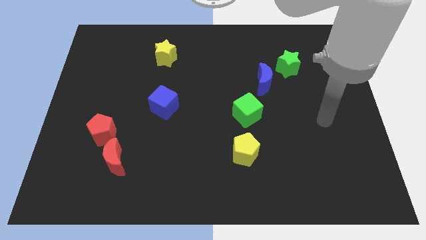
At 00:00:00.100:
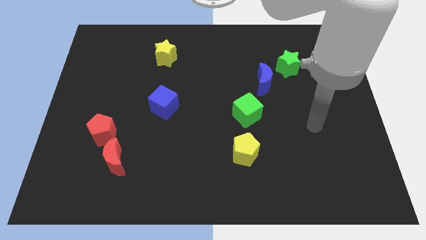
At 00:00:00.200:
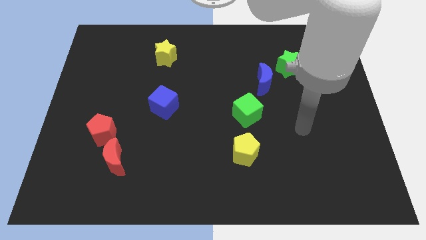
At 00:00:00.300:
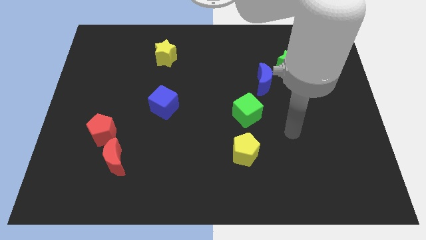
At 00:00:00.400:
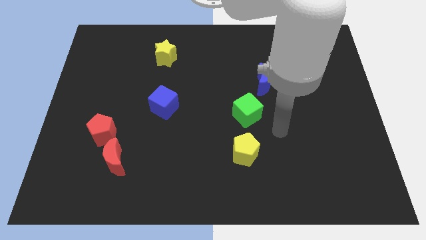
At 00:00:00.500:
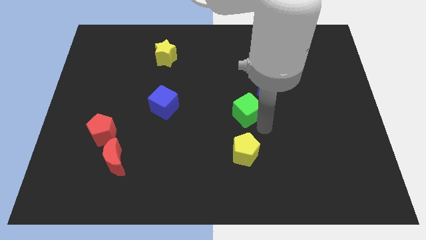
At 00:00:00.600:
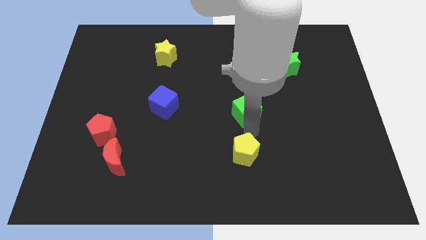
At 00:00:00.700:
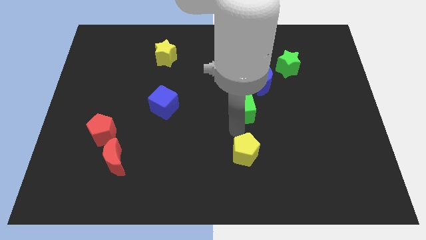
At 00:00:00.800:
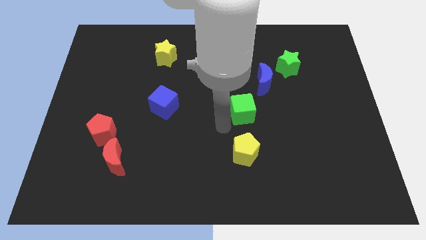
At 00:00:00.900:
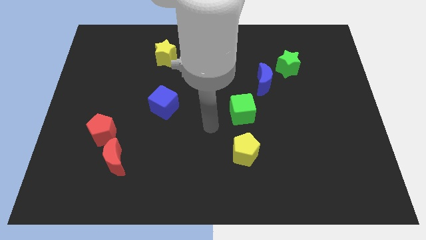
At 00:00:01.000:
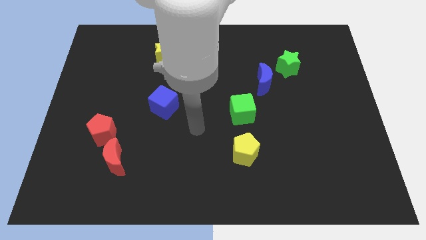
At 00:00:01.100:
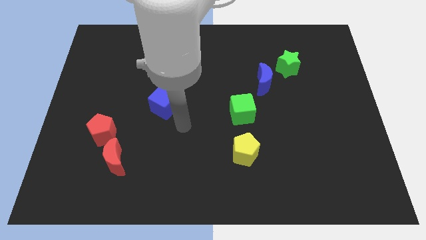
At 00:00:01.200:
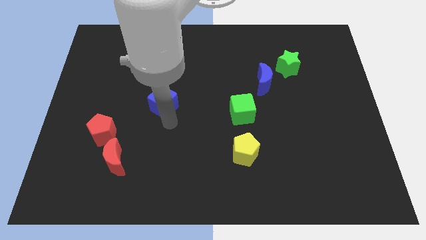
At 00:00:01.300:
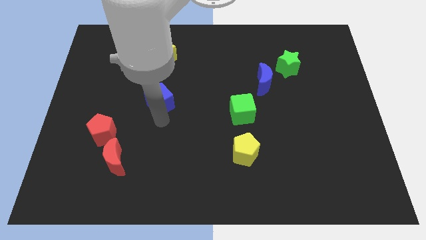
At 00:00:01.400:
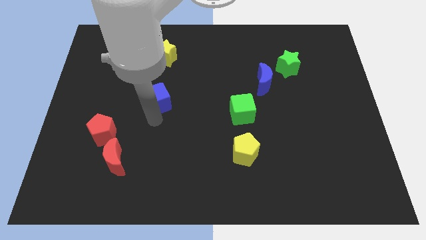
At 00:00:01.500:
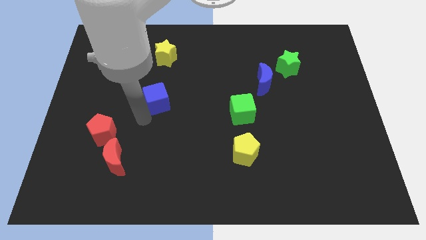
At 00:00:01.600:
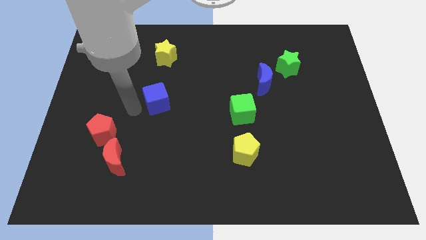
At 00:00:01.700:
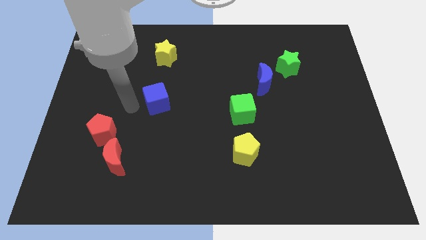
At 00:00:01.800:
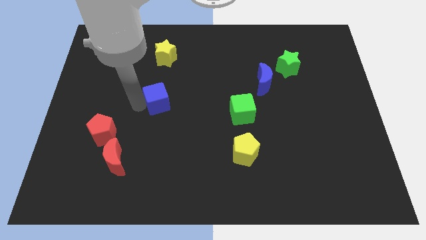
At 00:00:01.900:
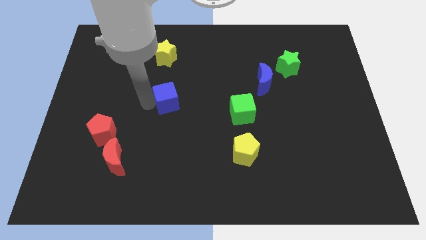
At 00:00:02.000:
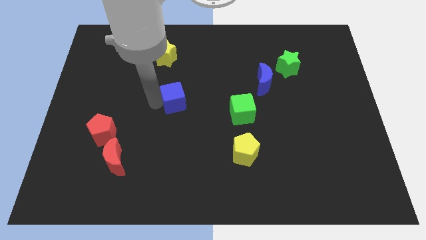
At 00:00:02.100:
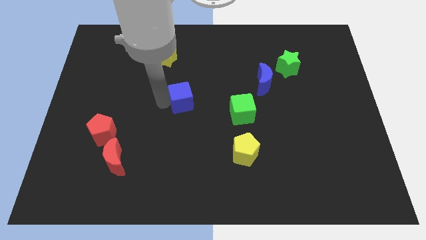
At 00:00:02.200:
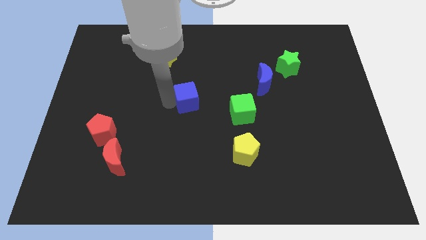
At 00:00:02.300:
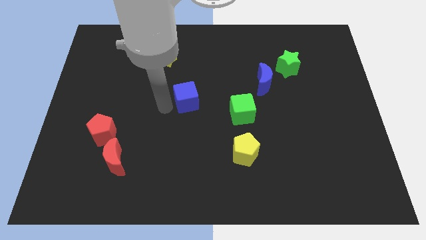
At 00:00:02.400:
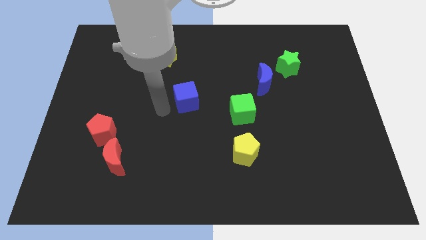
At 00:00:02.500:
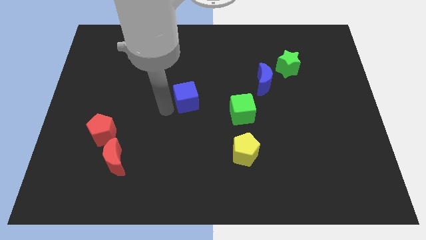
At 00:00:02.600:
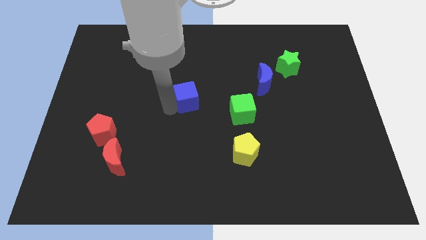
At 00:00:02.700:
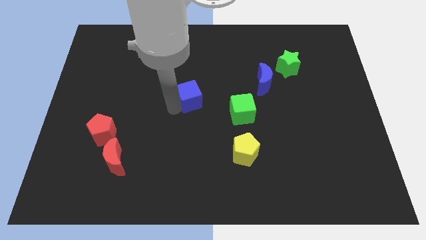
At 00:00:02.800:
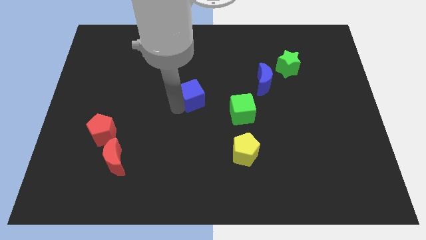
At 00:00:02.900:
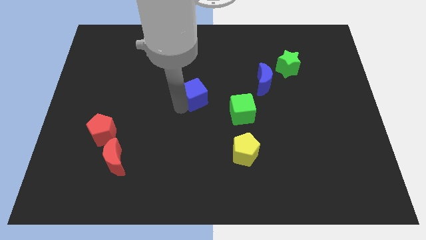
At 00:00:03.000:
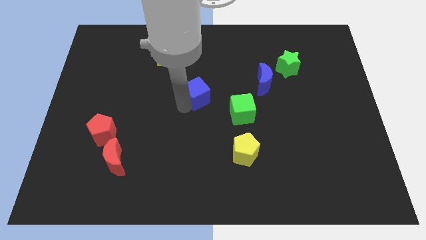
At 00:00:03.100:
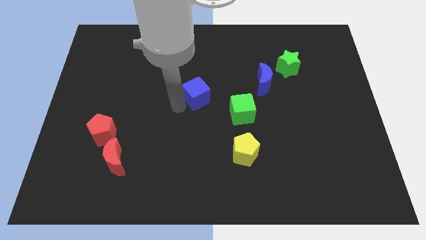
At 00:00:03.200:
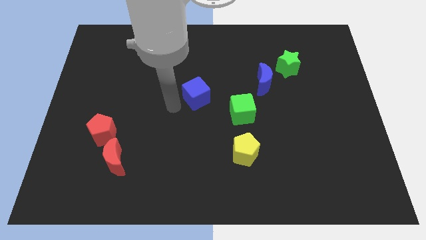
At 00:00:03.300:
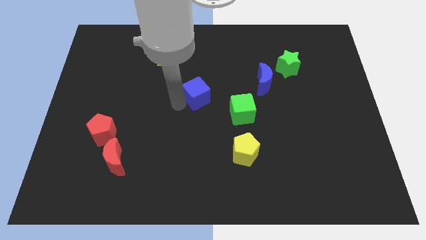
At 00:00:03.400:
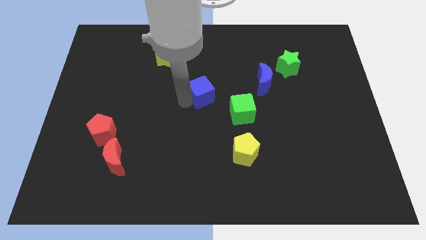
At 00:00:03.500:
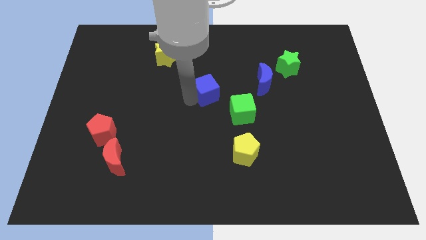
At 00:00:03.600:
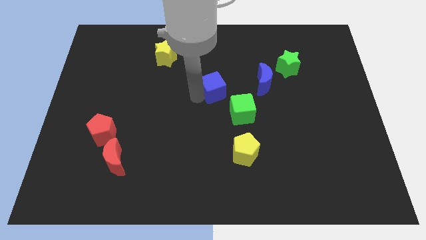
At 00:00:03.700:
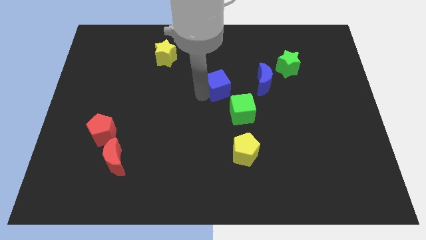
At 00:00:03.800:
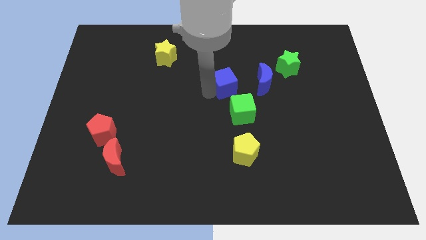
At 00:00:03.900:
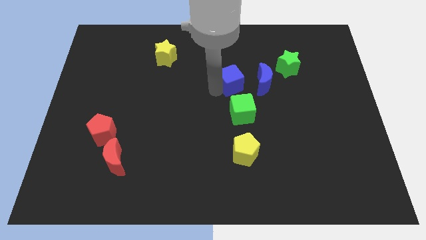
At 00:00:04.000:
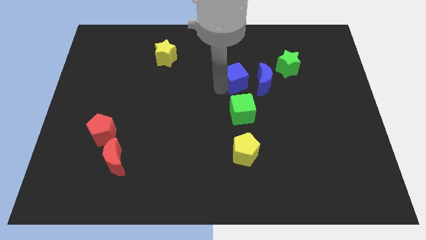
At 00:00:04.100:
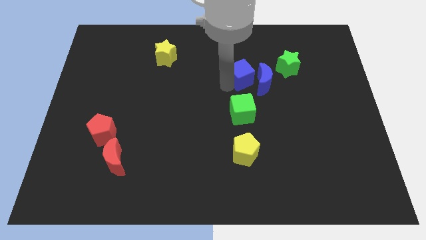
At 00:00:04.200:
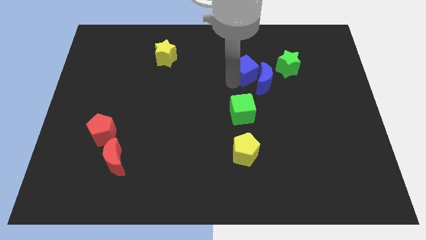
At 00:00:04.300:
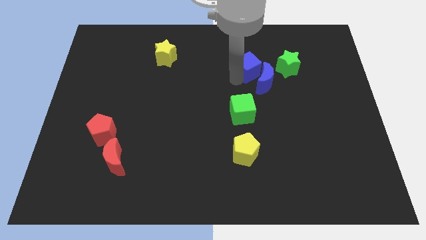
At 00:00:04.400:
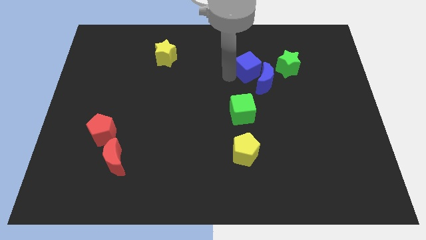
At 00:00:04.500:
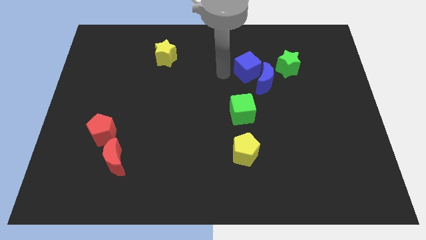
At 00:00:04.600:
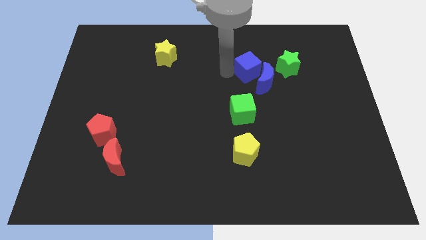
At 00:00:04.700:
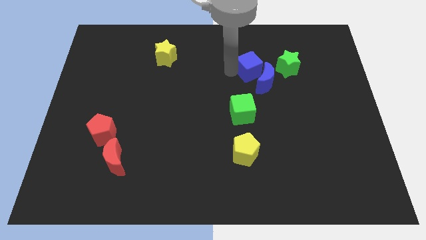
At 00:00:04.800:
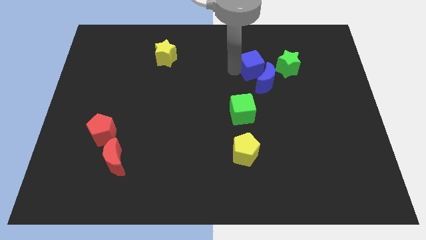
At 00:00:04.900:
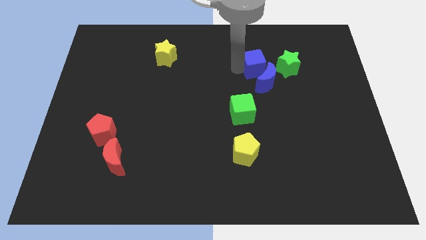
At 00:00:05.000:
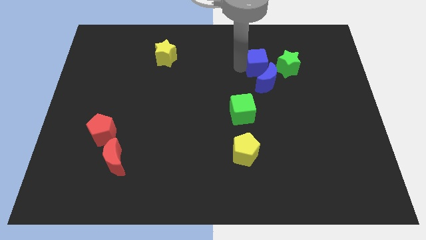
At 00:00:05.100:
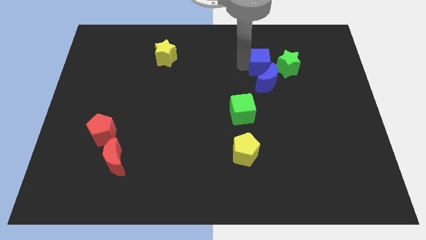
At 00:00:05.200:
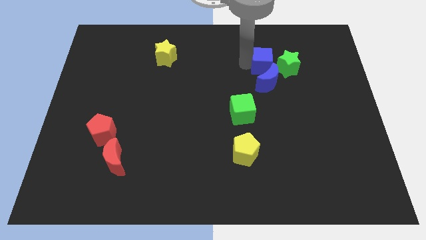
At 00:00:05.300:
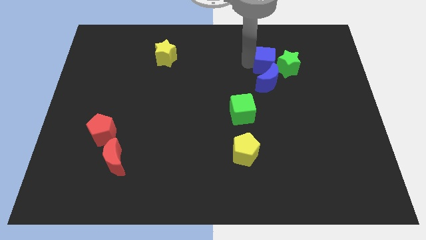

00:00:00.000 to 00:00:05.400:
push the blue cube close to the green star

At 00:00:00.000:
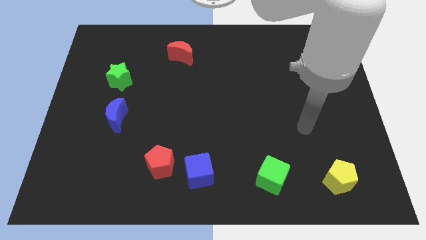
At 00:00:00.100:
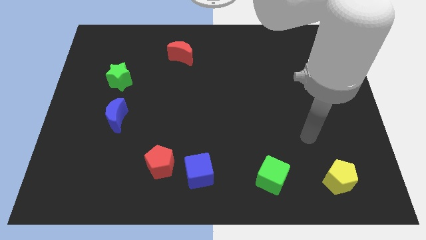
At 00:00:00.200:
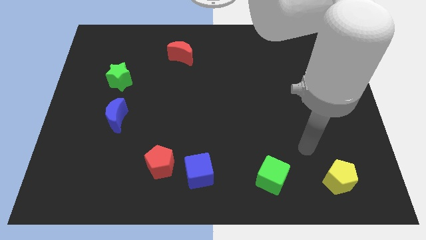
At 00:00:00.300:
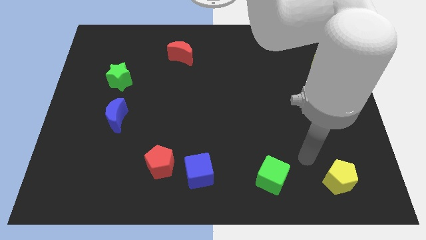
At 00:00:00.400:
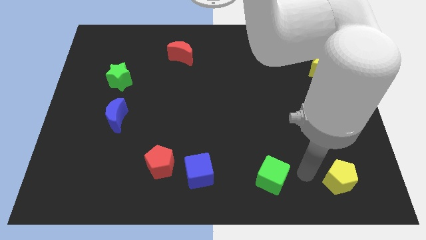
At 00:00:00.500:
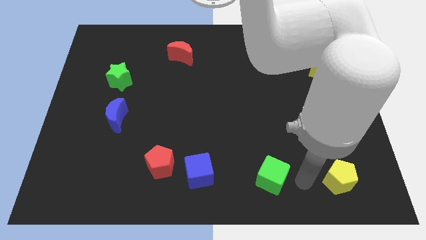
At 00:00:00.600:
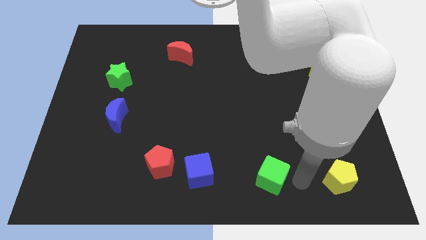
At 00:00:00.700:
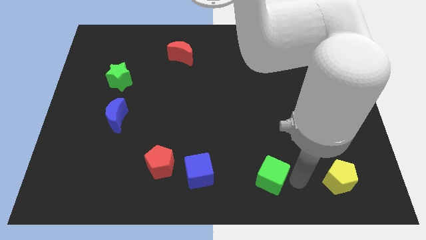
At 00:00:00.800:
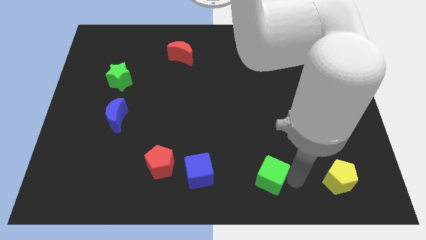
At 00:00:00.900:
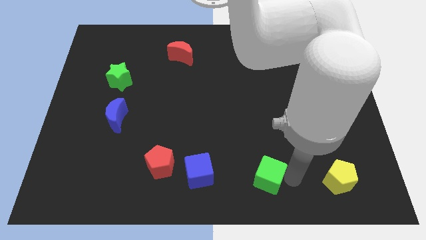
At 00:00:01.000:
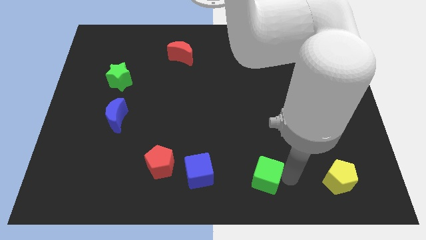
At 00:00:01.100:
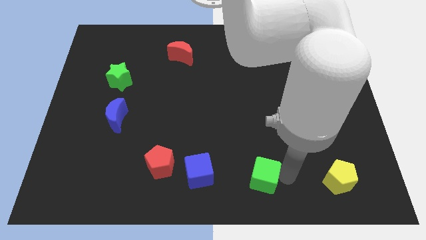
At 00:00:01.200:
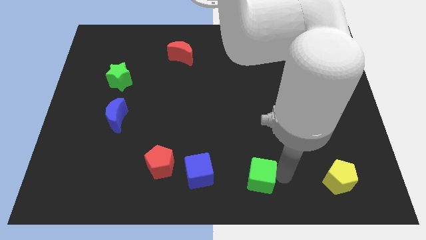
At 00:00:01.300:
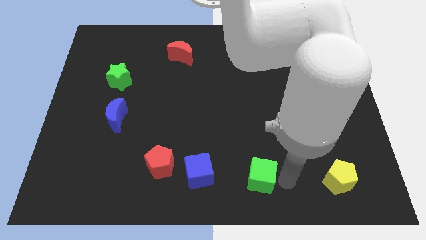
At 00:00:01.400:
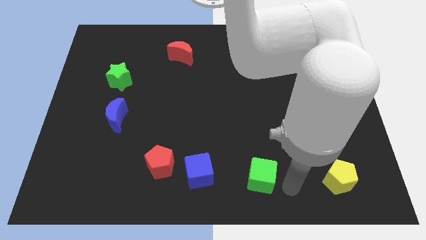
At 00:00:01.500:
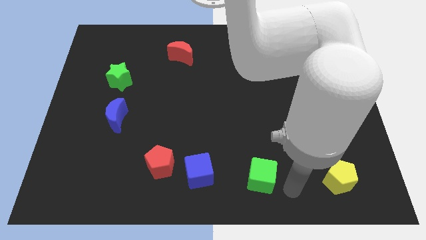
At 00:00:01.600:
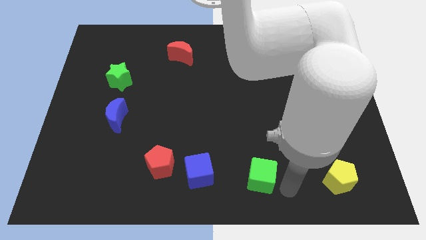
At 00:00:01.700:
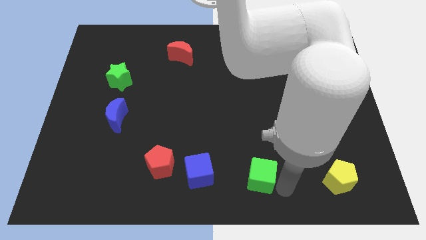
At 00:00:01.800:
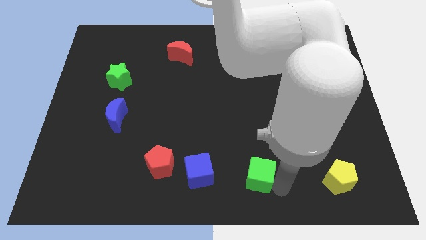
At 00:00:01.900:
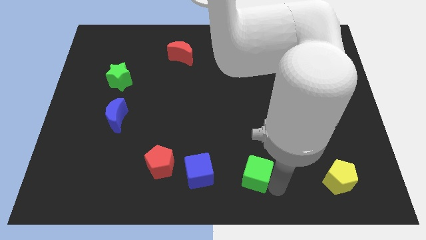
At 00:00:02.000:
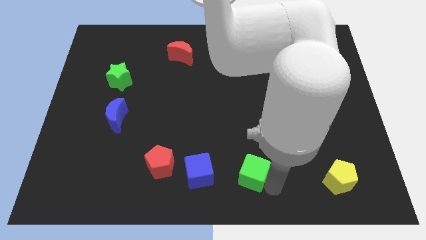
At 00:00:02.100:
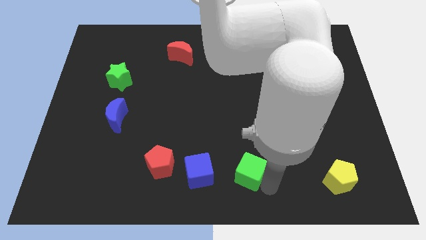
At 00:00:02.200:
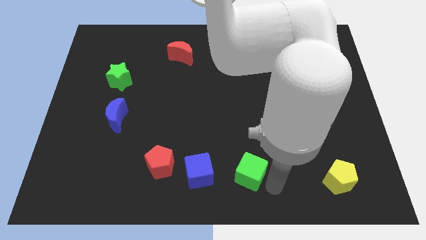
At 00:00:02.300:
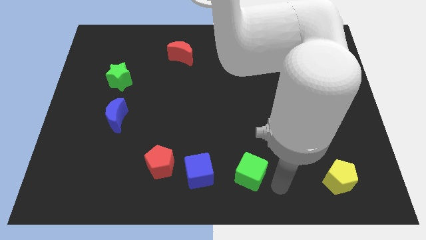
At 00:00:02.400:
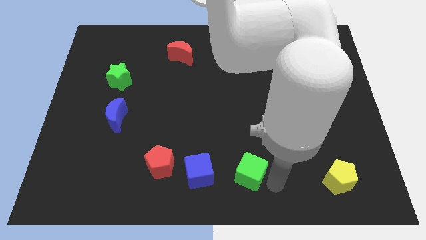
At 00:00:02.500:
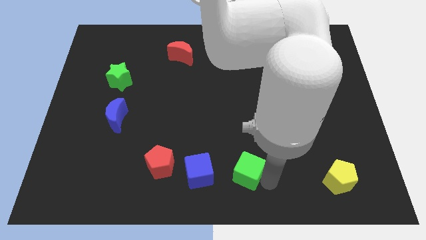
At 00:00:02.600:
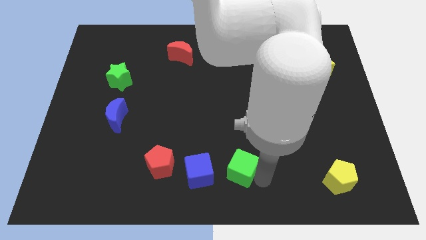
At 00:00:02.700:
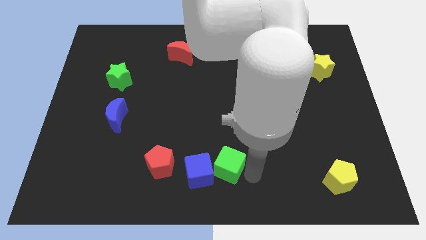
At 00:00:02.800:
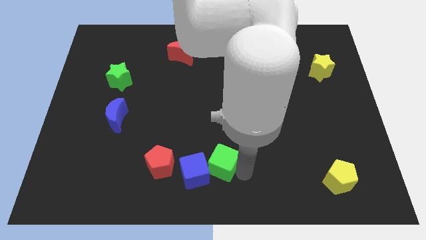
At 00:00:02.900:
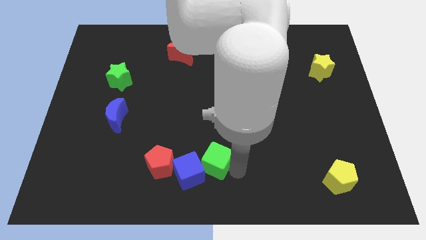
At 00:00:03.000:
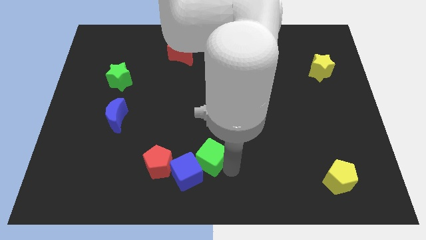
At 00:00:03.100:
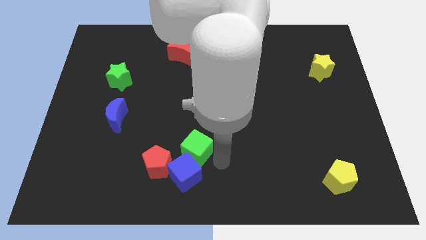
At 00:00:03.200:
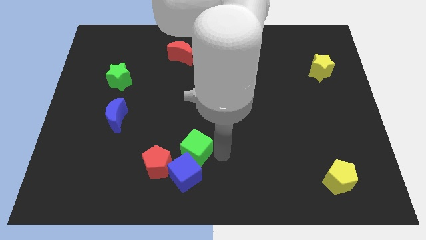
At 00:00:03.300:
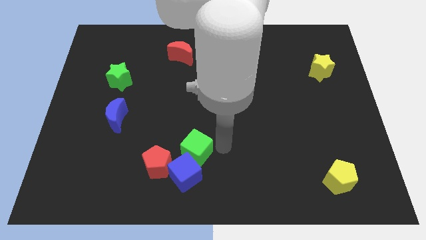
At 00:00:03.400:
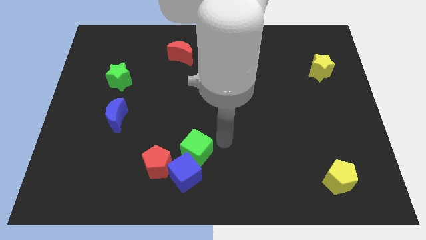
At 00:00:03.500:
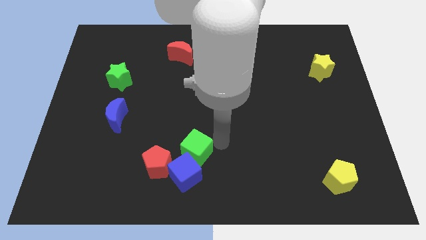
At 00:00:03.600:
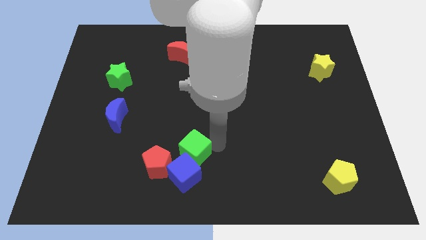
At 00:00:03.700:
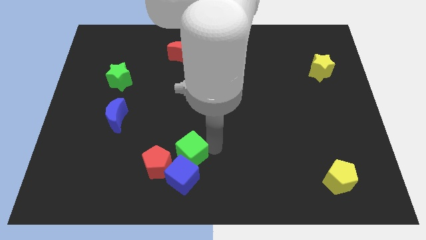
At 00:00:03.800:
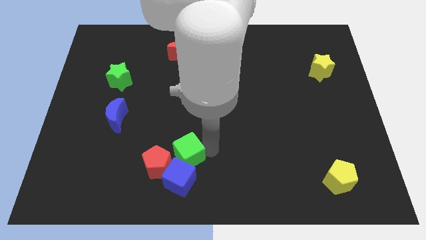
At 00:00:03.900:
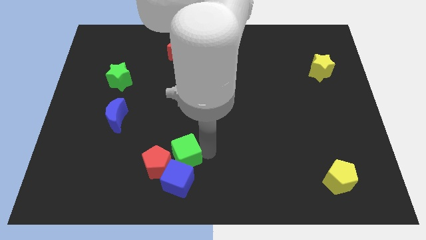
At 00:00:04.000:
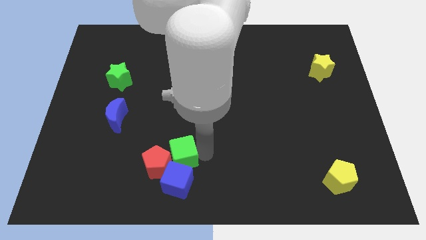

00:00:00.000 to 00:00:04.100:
slide the green cube next to the red pentagon
